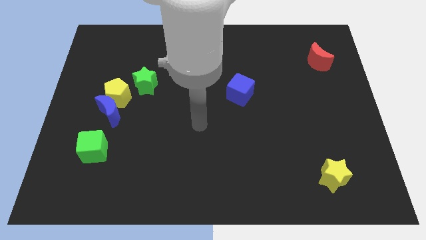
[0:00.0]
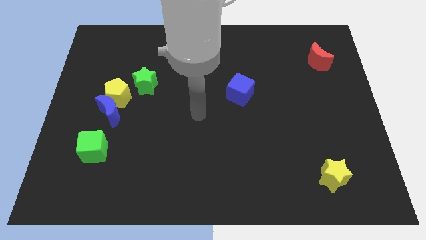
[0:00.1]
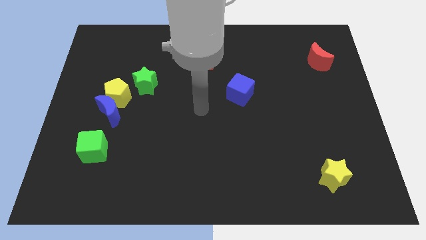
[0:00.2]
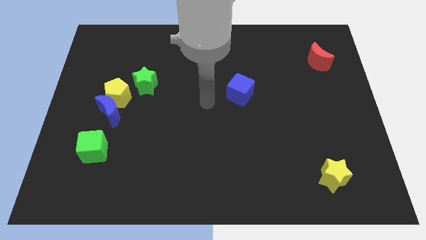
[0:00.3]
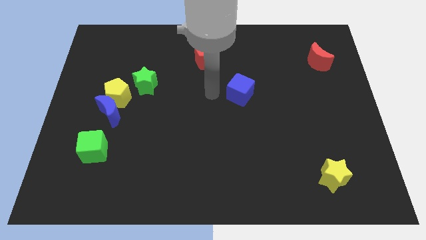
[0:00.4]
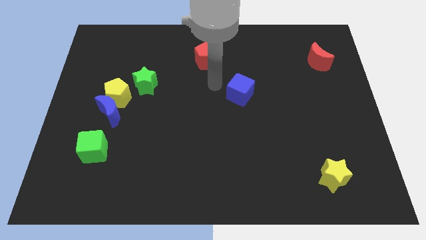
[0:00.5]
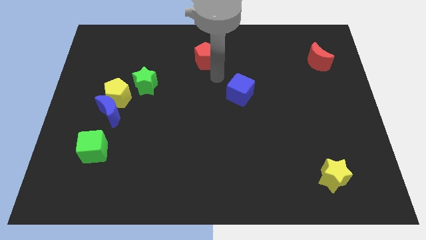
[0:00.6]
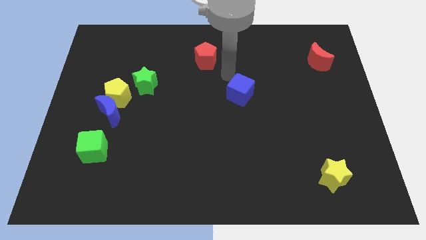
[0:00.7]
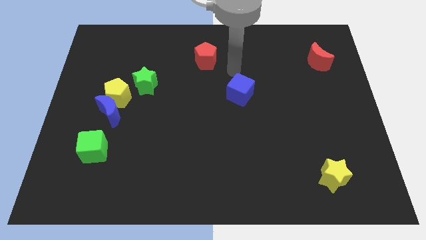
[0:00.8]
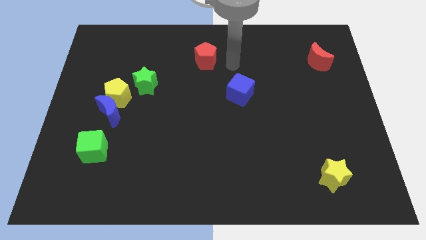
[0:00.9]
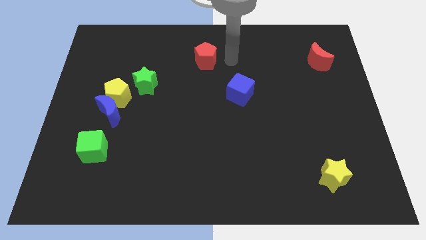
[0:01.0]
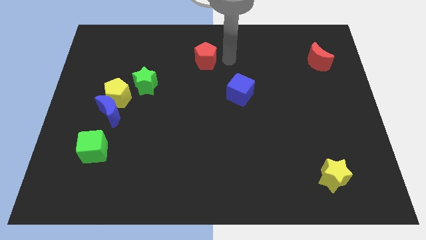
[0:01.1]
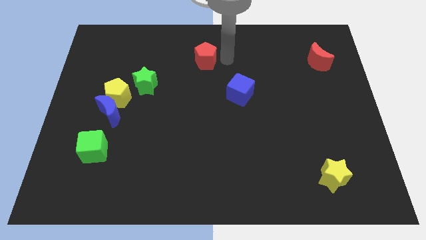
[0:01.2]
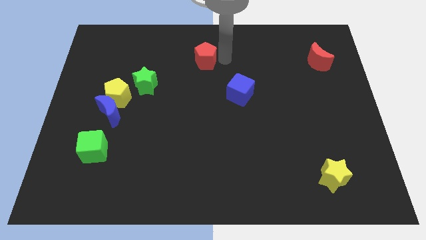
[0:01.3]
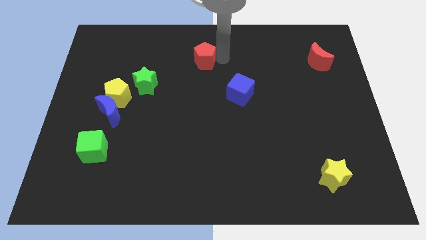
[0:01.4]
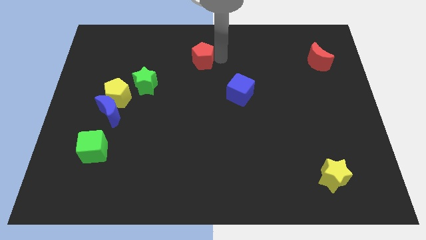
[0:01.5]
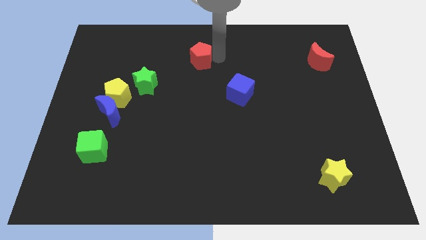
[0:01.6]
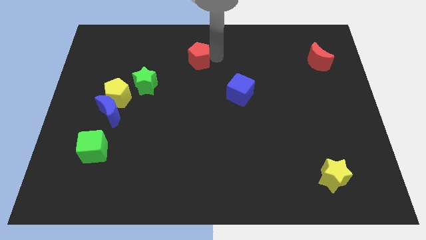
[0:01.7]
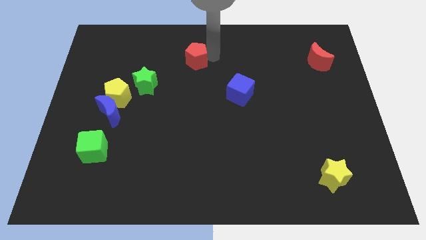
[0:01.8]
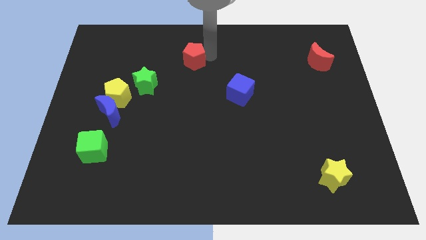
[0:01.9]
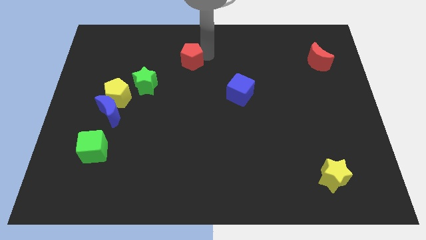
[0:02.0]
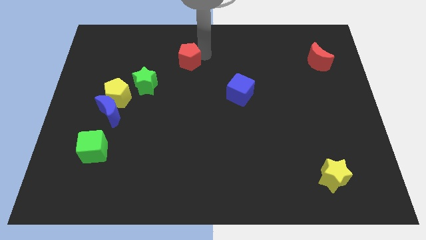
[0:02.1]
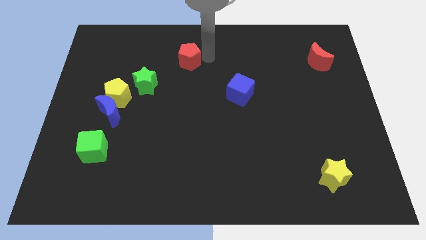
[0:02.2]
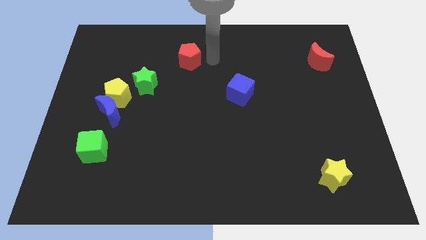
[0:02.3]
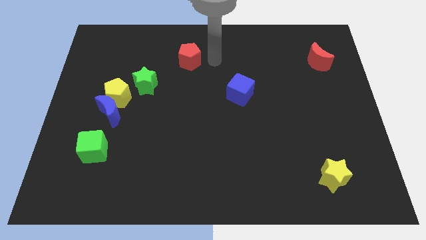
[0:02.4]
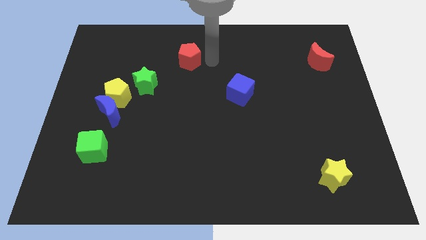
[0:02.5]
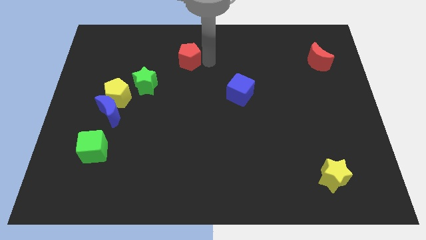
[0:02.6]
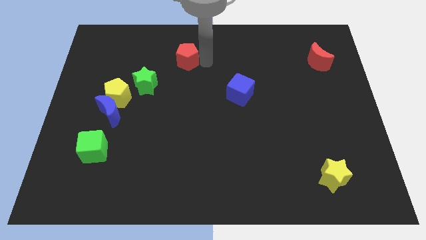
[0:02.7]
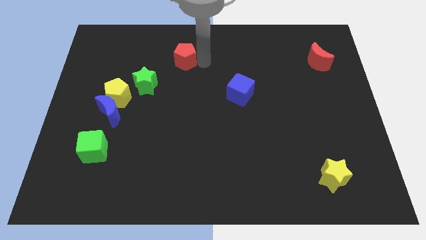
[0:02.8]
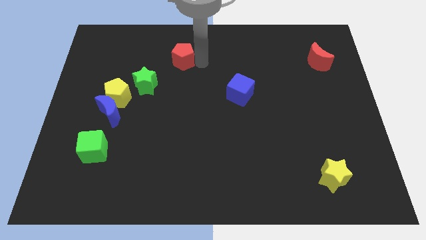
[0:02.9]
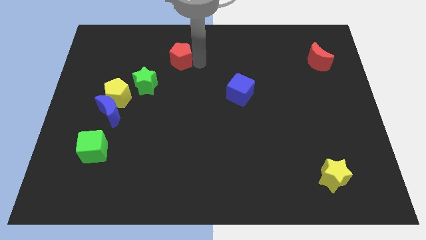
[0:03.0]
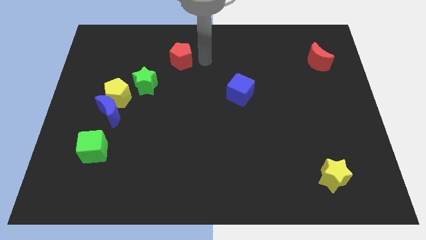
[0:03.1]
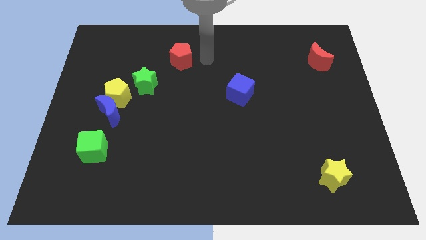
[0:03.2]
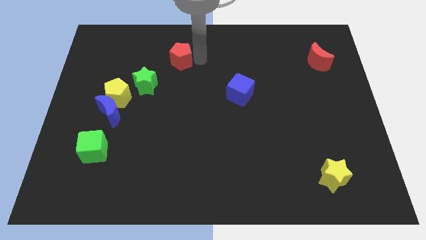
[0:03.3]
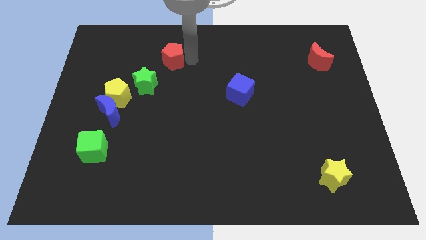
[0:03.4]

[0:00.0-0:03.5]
slide the red pentagon somewhat to the left

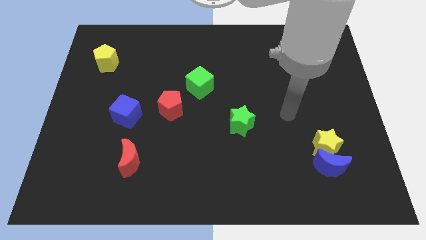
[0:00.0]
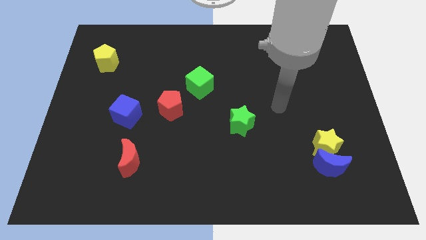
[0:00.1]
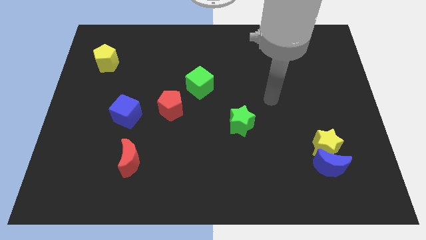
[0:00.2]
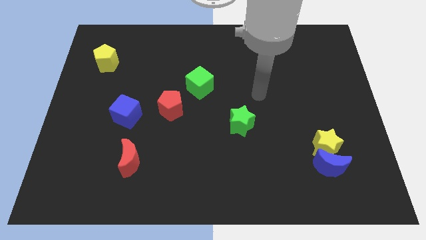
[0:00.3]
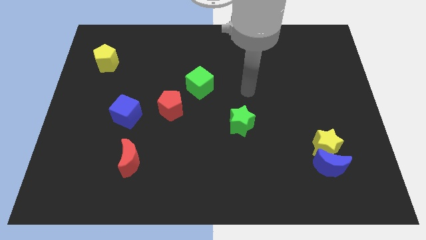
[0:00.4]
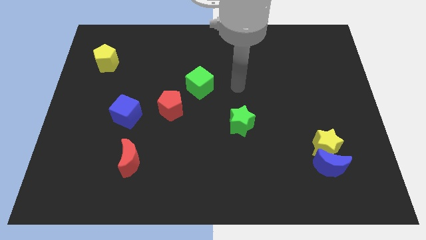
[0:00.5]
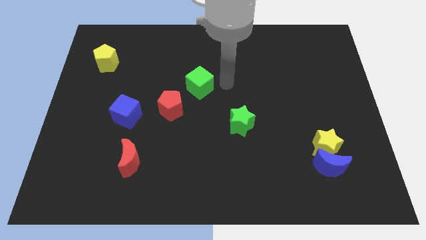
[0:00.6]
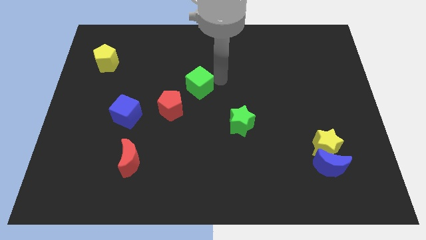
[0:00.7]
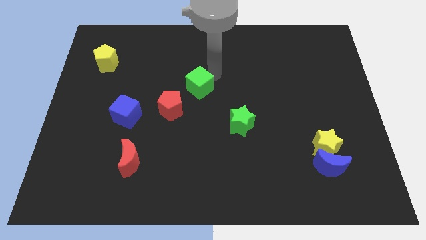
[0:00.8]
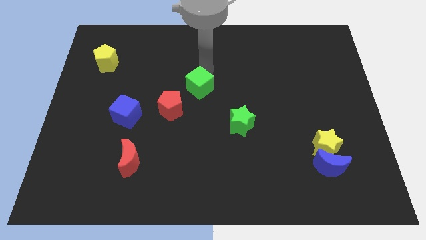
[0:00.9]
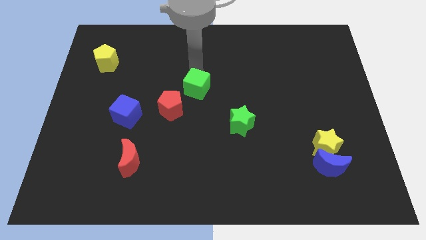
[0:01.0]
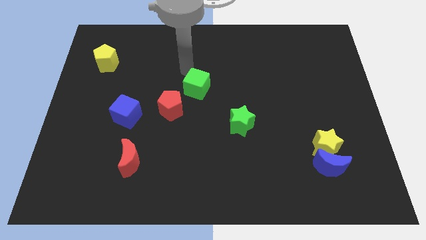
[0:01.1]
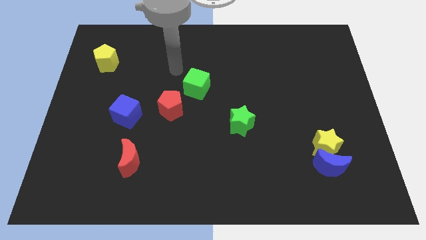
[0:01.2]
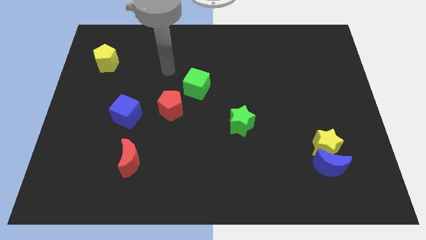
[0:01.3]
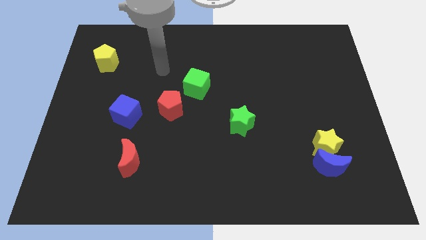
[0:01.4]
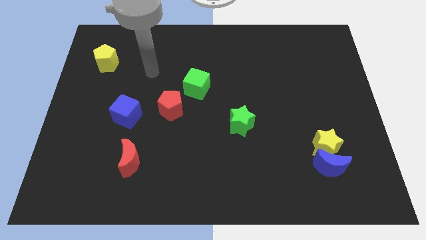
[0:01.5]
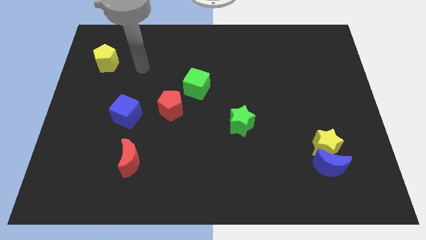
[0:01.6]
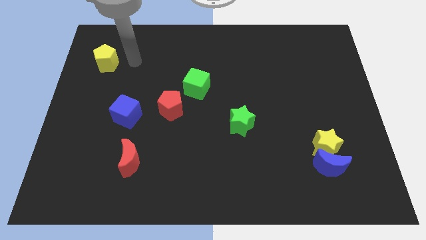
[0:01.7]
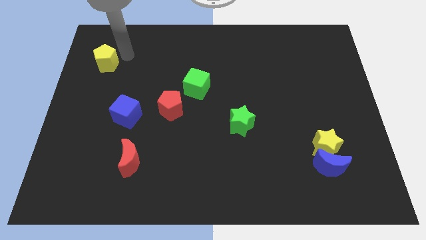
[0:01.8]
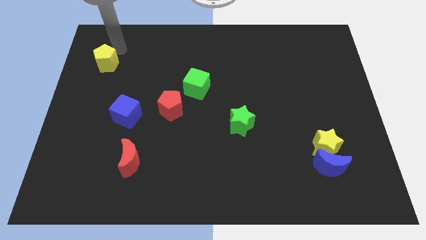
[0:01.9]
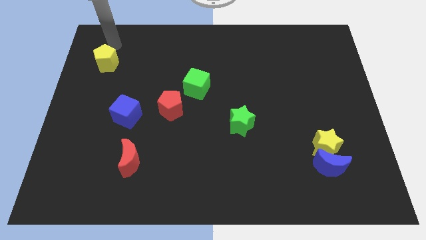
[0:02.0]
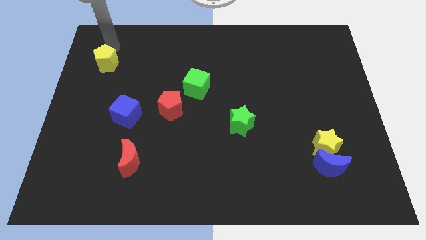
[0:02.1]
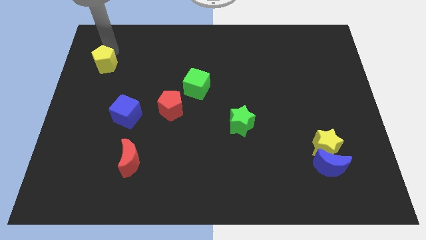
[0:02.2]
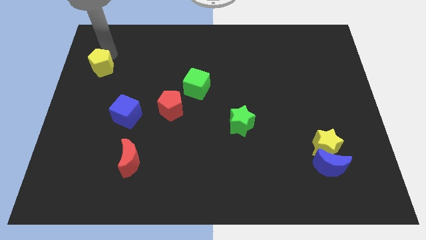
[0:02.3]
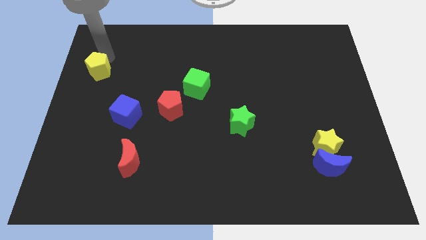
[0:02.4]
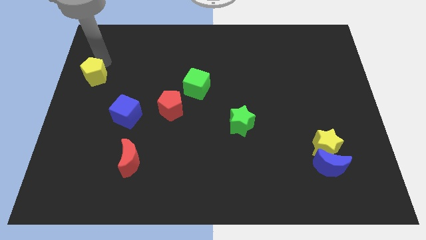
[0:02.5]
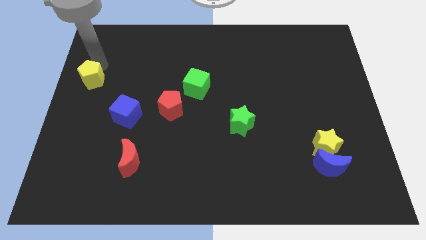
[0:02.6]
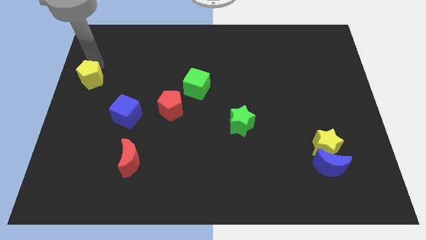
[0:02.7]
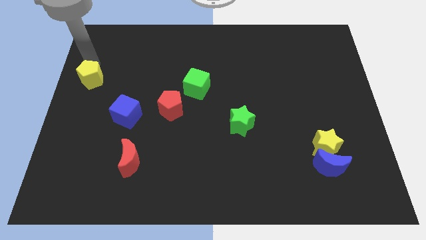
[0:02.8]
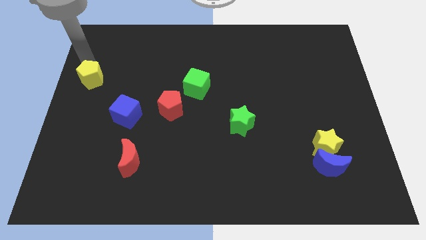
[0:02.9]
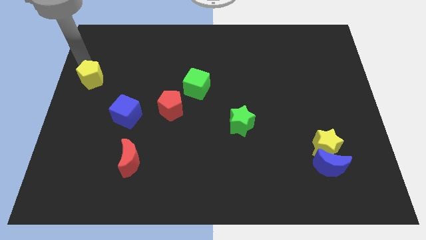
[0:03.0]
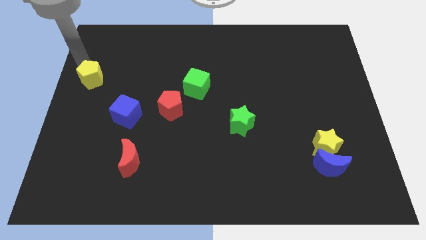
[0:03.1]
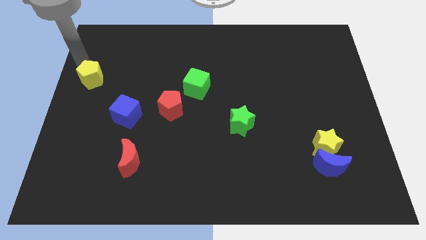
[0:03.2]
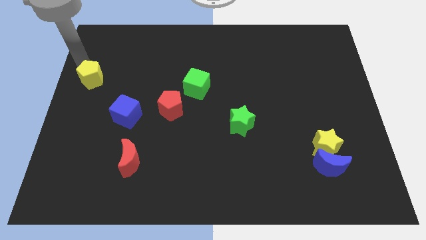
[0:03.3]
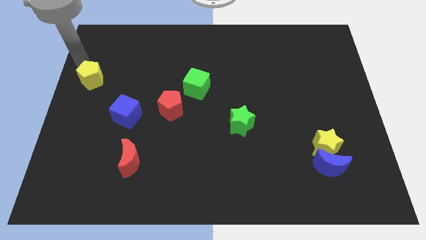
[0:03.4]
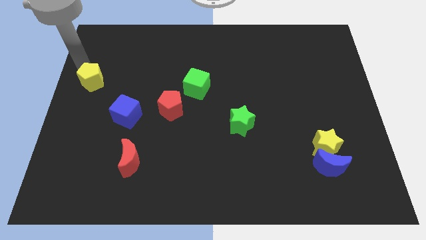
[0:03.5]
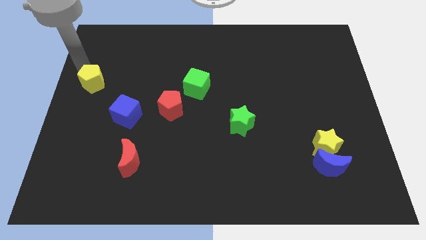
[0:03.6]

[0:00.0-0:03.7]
slightly push the yellow pentagon downwards

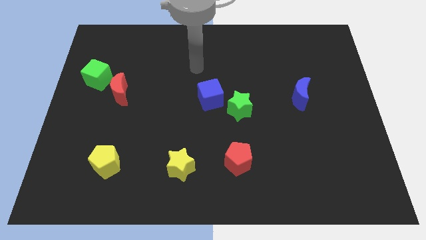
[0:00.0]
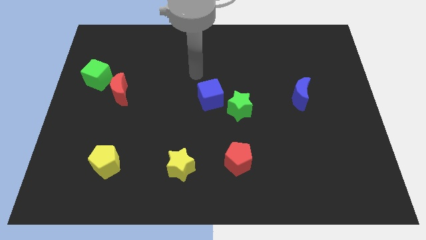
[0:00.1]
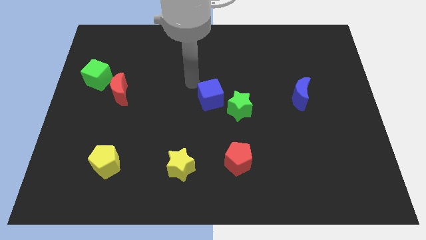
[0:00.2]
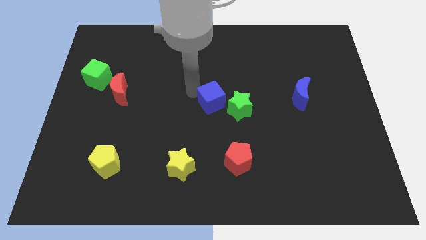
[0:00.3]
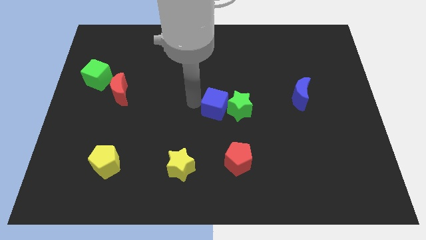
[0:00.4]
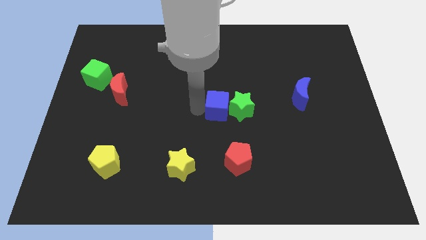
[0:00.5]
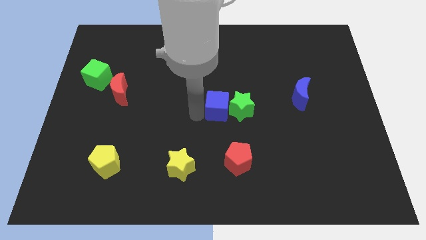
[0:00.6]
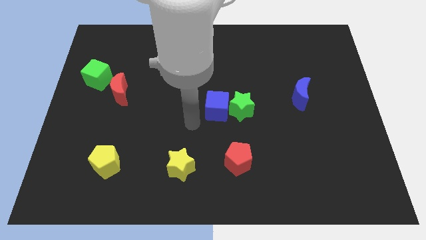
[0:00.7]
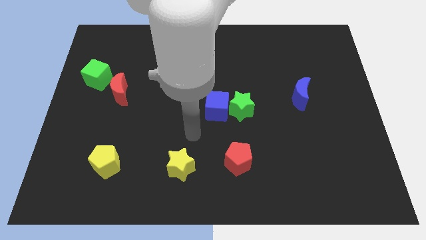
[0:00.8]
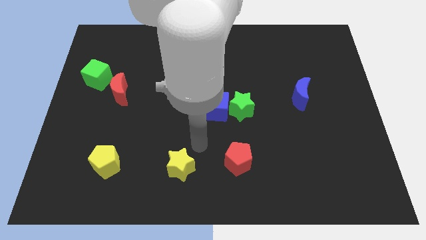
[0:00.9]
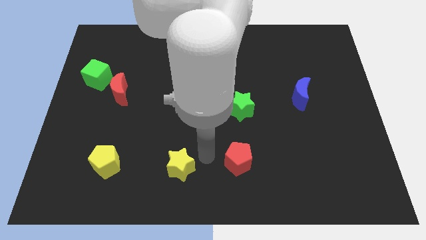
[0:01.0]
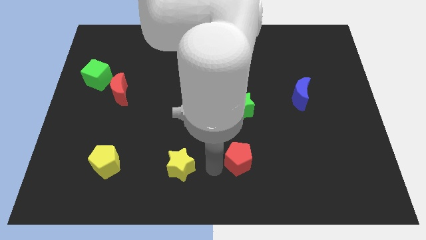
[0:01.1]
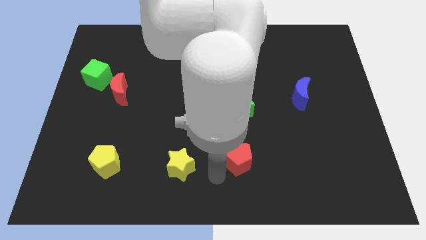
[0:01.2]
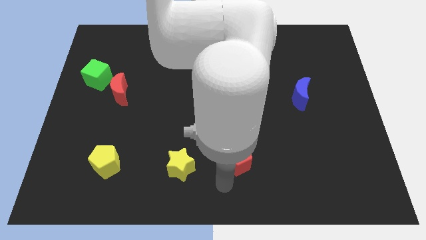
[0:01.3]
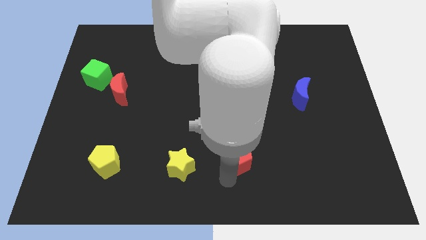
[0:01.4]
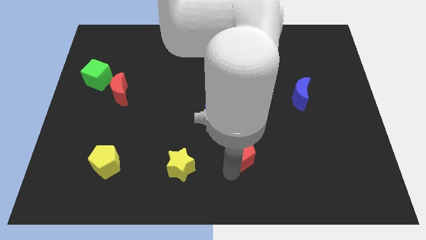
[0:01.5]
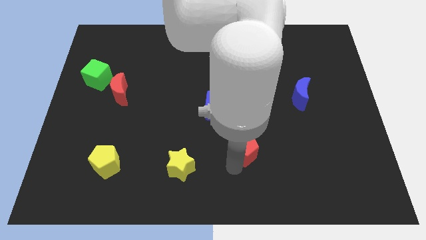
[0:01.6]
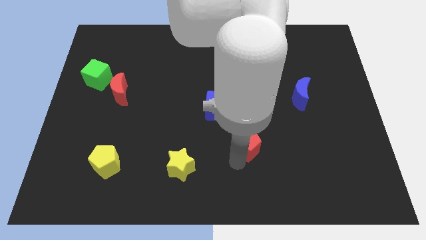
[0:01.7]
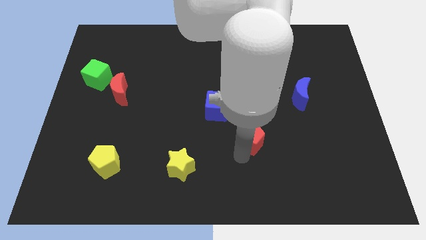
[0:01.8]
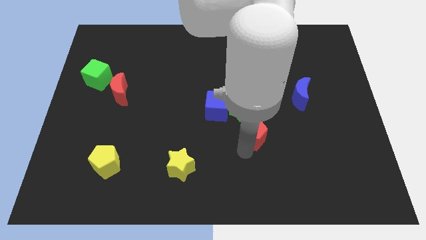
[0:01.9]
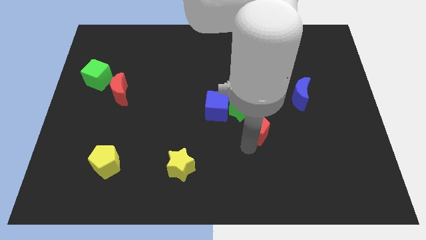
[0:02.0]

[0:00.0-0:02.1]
move the red pentagon up a little
